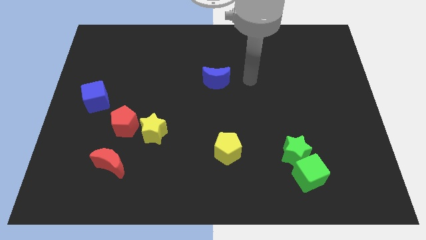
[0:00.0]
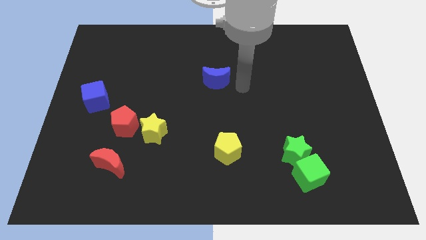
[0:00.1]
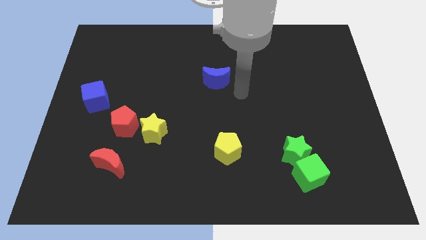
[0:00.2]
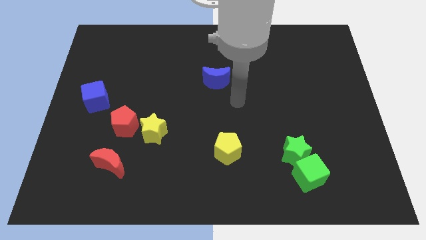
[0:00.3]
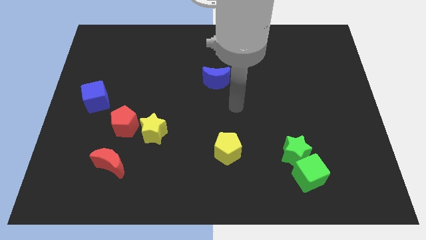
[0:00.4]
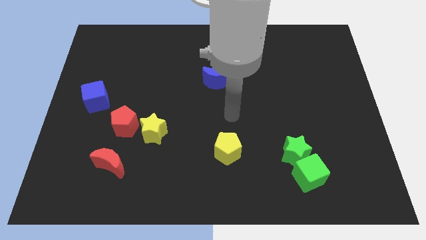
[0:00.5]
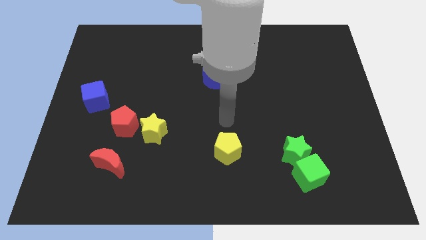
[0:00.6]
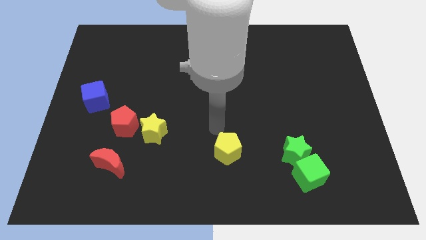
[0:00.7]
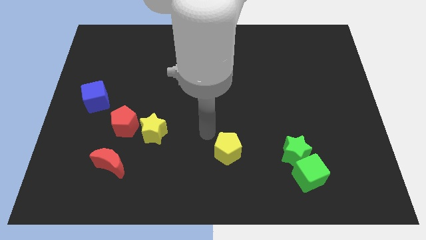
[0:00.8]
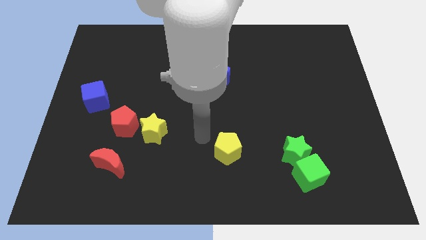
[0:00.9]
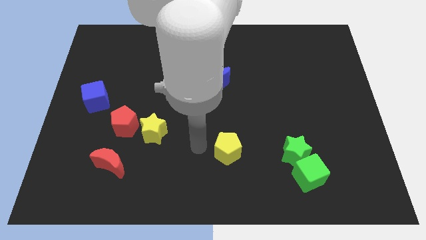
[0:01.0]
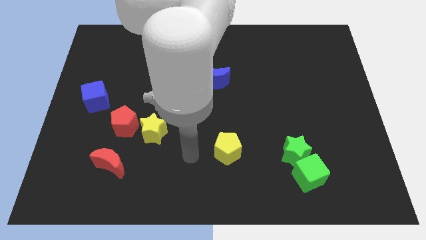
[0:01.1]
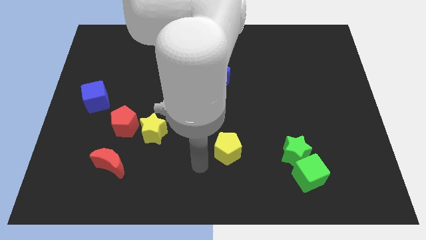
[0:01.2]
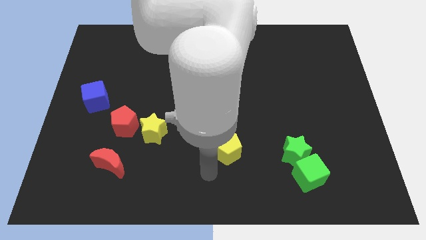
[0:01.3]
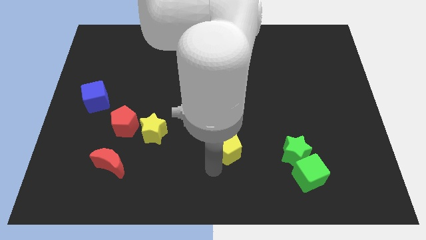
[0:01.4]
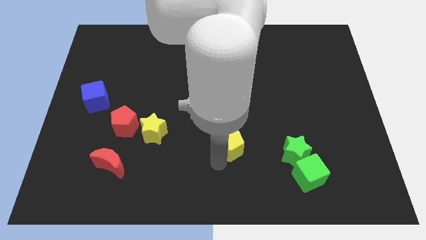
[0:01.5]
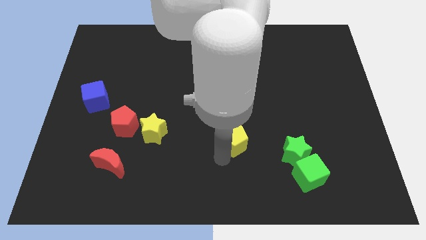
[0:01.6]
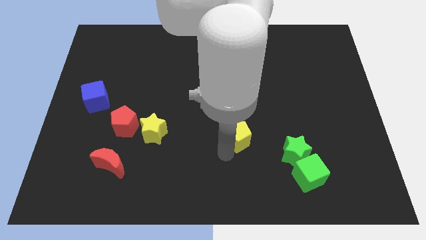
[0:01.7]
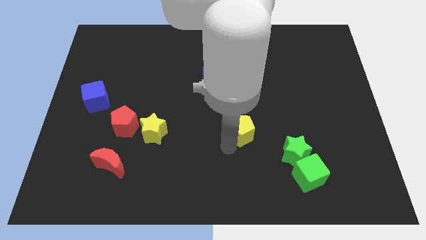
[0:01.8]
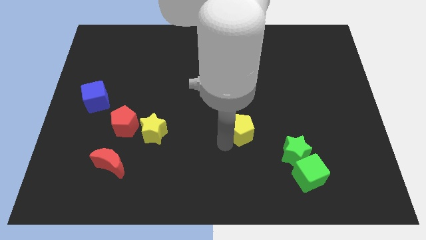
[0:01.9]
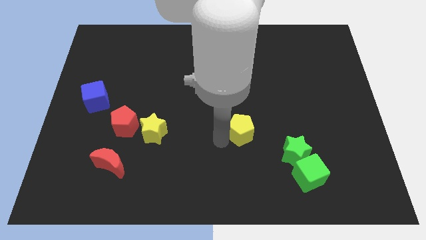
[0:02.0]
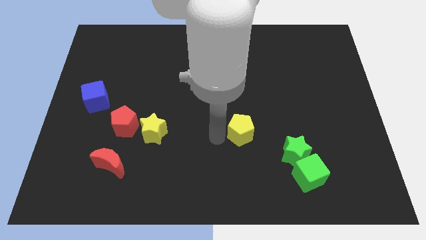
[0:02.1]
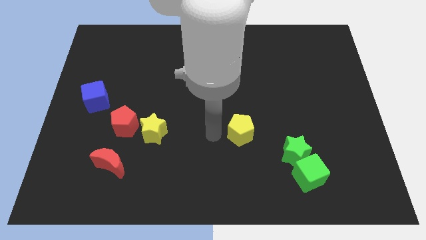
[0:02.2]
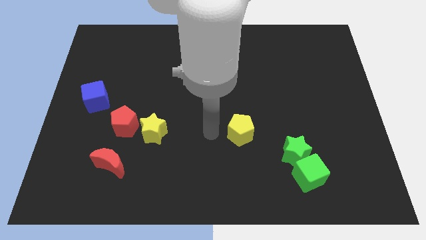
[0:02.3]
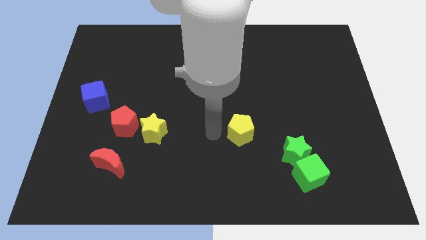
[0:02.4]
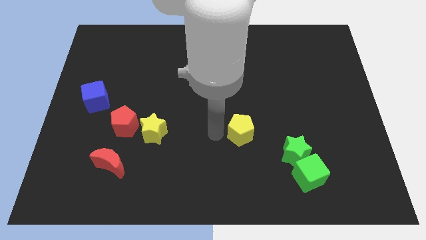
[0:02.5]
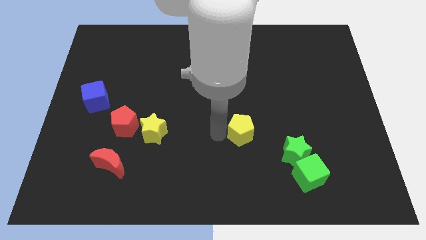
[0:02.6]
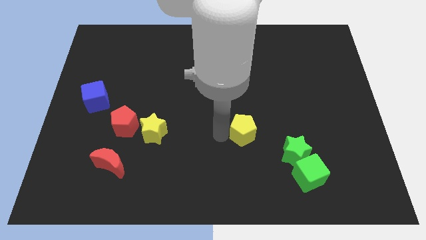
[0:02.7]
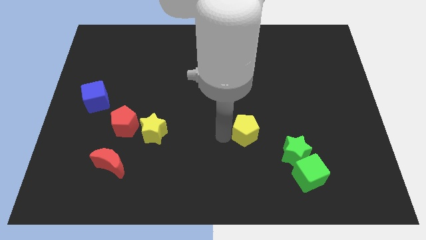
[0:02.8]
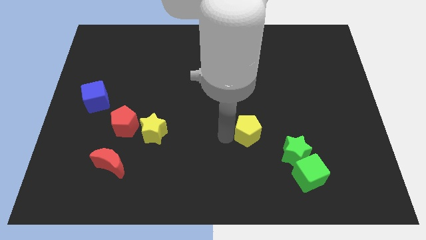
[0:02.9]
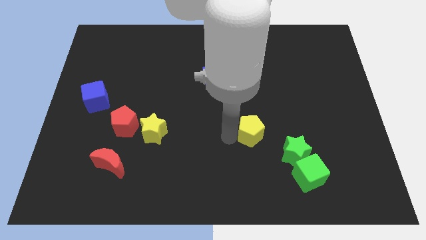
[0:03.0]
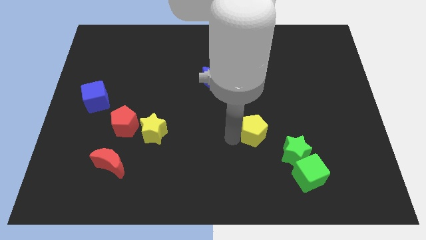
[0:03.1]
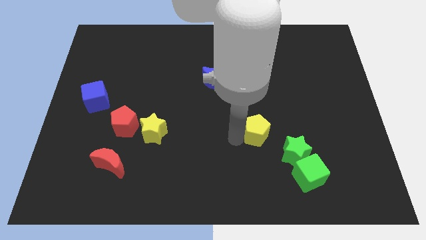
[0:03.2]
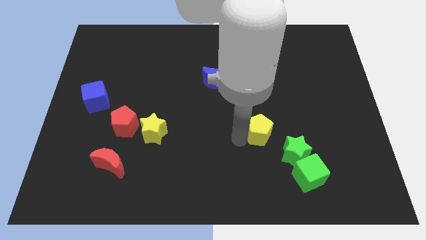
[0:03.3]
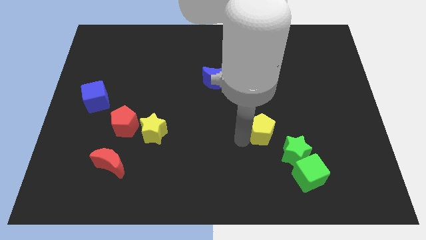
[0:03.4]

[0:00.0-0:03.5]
push the yellow pentagon slightly right

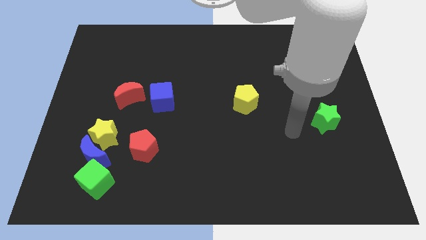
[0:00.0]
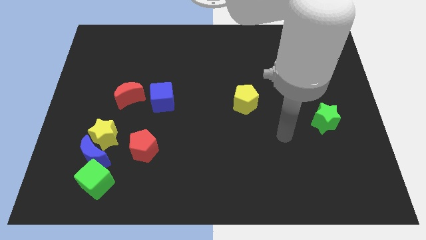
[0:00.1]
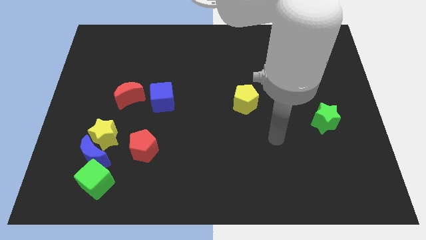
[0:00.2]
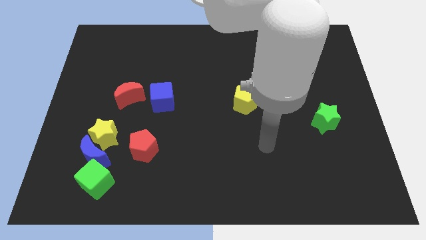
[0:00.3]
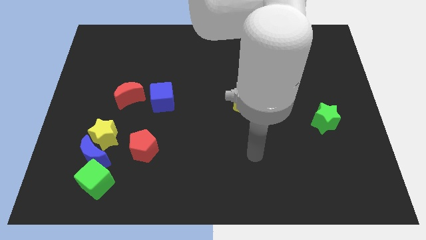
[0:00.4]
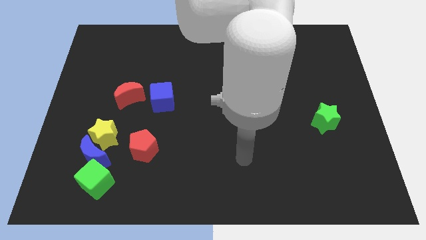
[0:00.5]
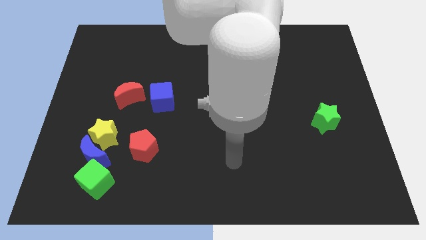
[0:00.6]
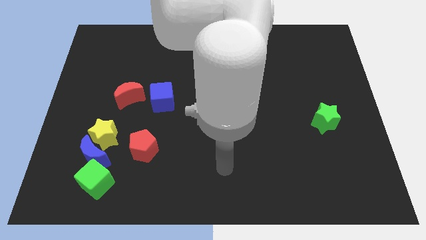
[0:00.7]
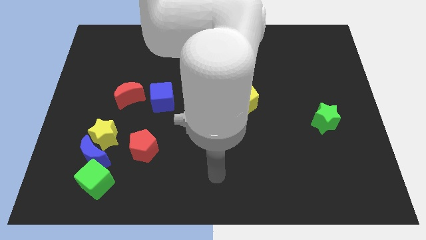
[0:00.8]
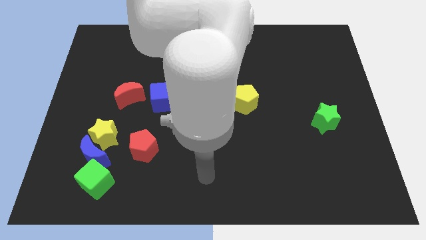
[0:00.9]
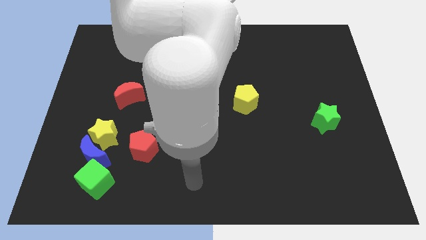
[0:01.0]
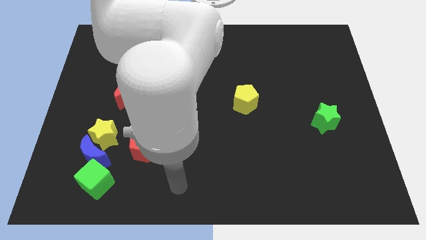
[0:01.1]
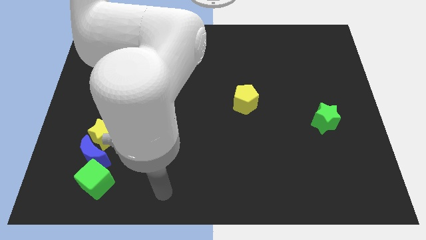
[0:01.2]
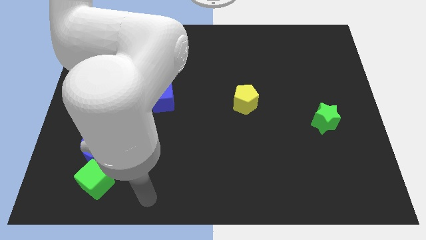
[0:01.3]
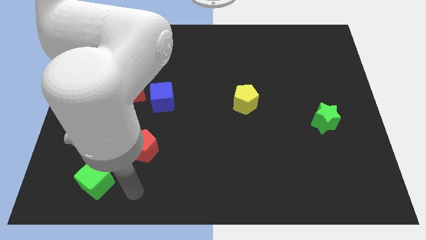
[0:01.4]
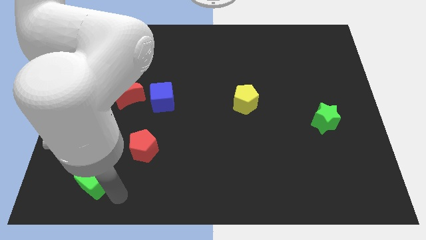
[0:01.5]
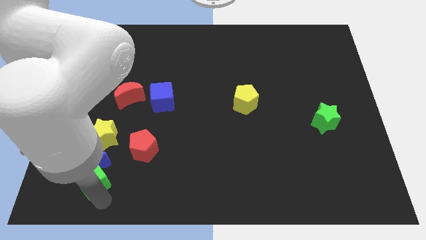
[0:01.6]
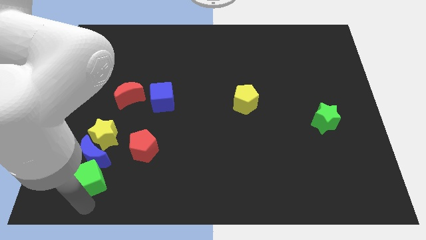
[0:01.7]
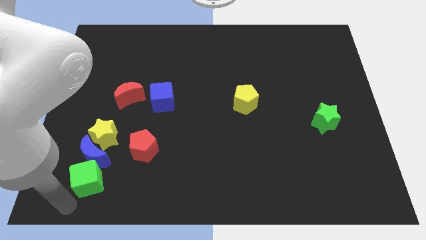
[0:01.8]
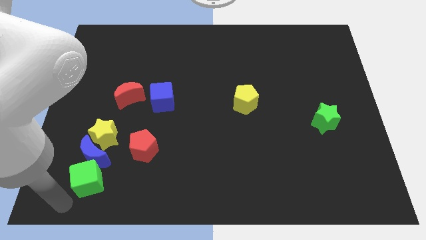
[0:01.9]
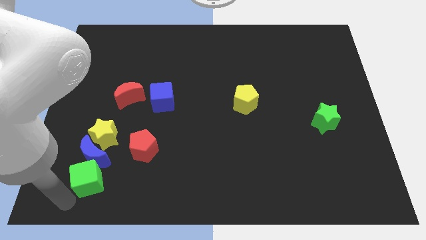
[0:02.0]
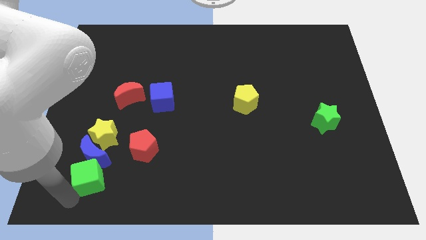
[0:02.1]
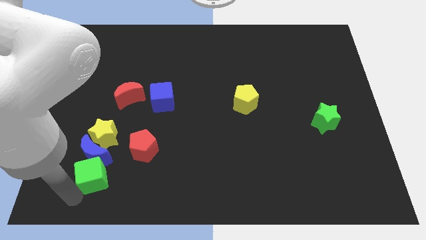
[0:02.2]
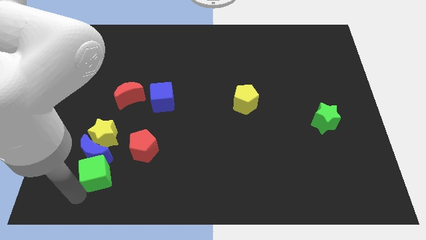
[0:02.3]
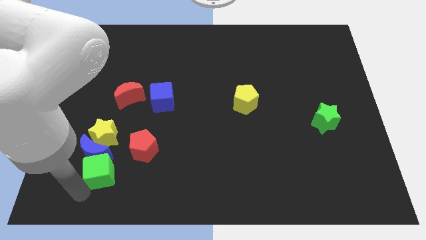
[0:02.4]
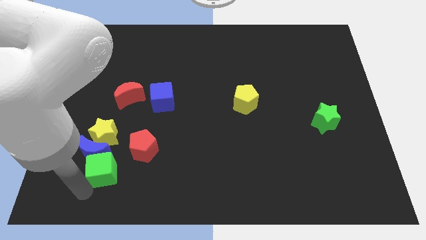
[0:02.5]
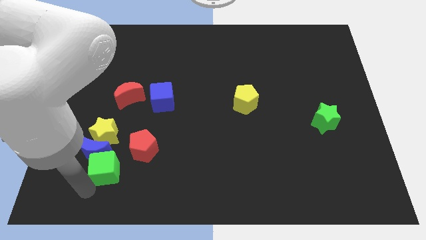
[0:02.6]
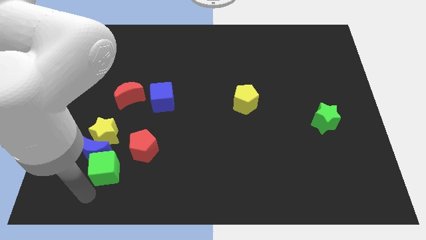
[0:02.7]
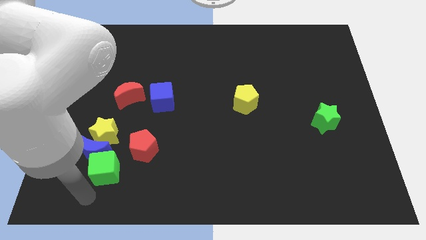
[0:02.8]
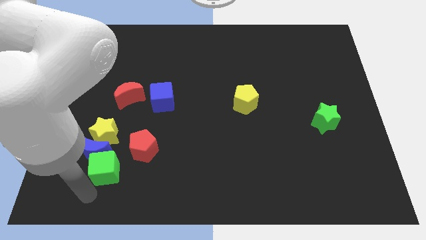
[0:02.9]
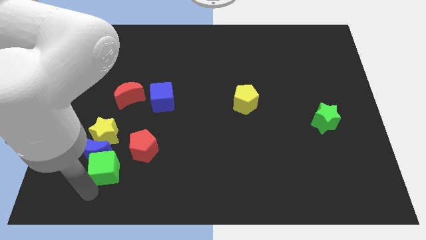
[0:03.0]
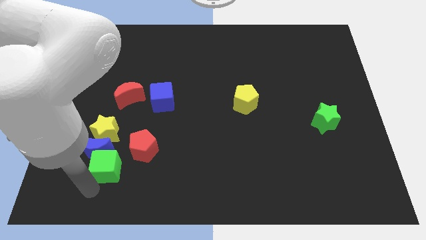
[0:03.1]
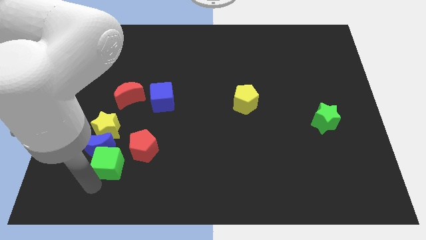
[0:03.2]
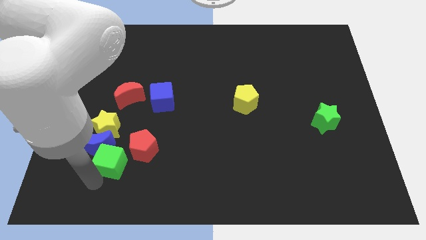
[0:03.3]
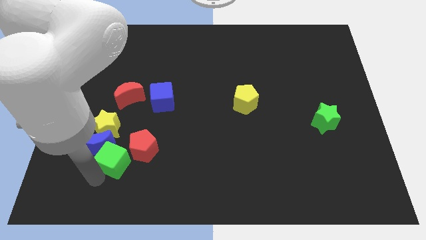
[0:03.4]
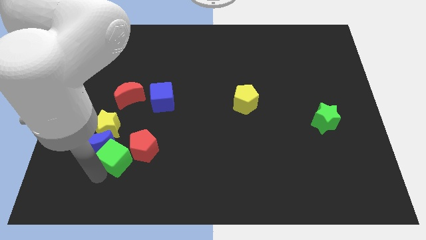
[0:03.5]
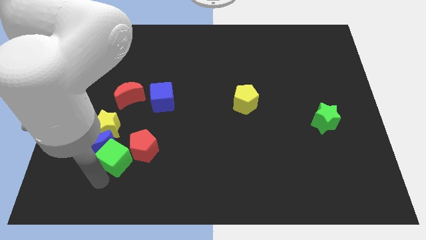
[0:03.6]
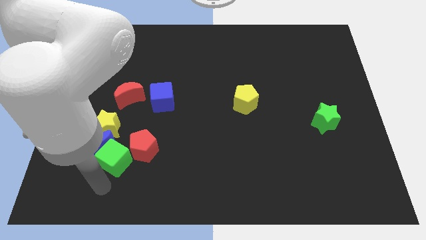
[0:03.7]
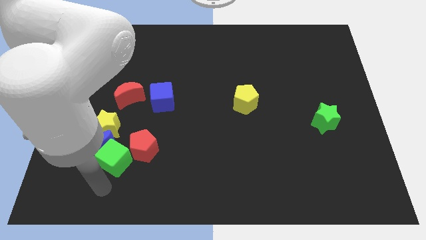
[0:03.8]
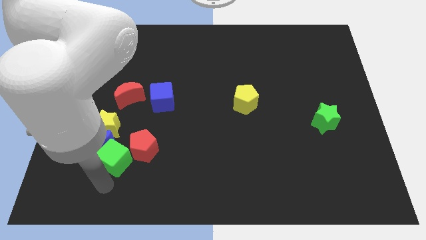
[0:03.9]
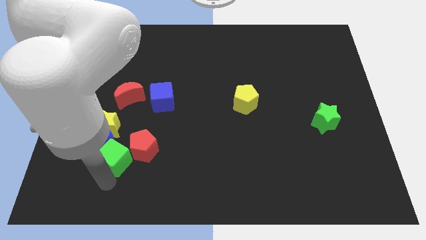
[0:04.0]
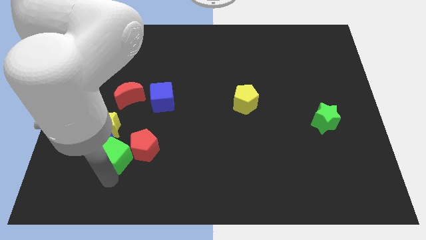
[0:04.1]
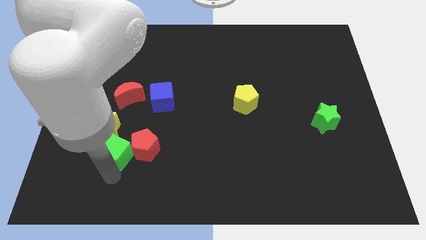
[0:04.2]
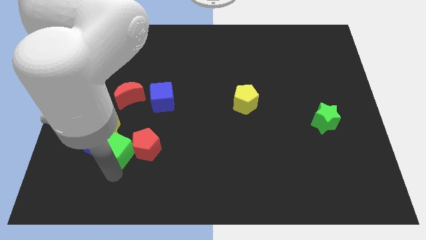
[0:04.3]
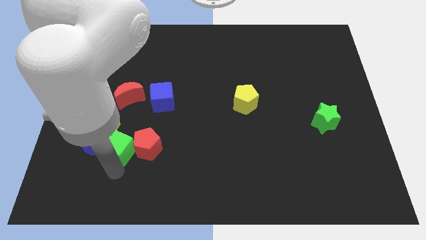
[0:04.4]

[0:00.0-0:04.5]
move the green cube upwards slightly

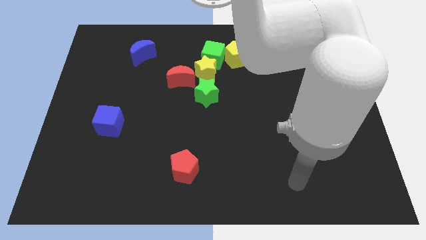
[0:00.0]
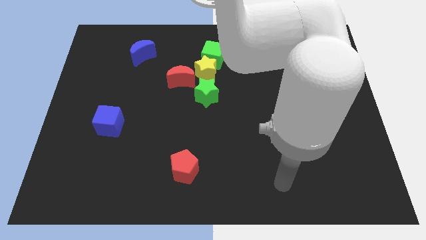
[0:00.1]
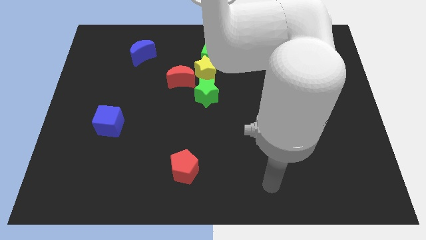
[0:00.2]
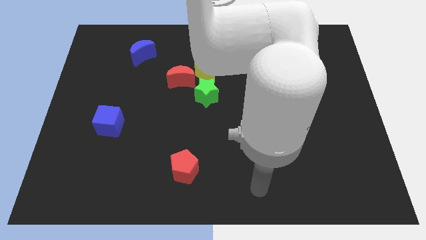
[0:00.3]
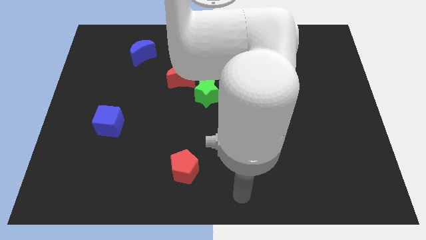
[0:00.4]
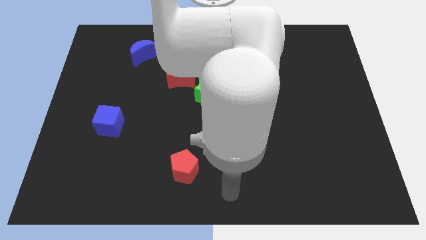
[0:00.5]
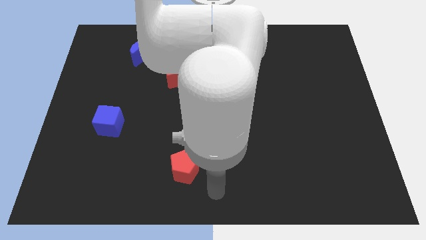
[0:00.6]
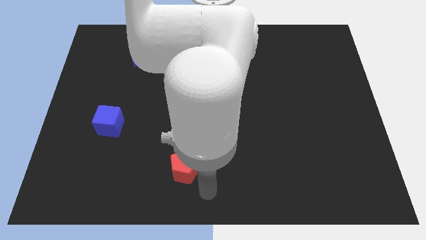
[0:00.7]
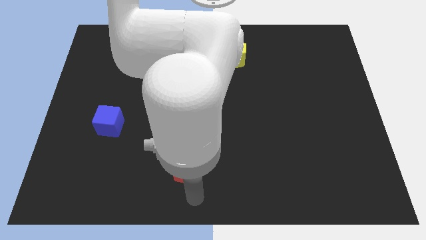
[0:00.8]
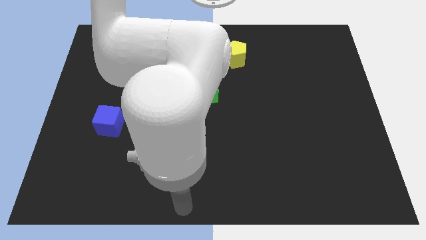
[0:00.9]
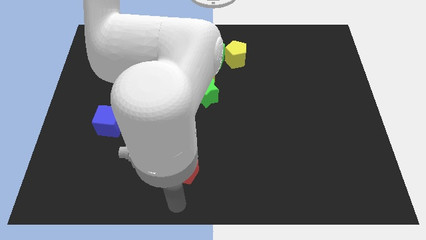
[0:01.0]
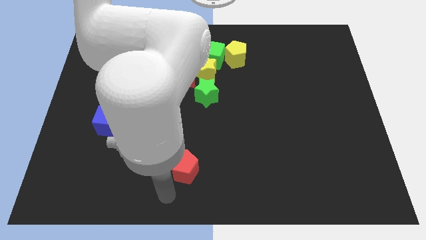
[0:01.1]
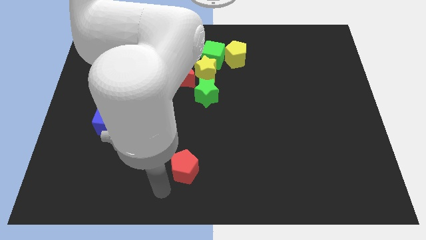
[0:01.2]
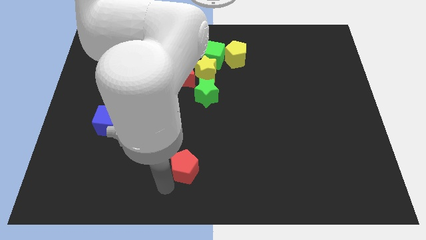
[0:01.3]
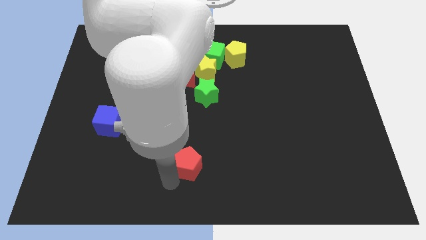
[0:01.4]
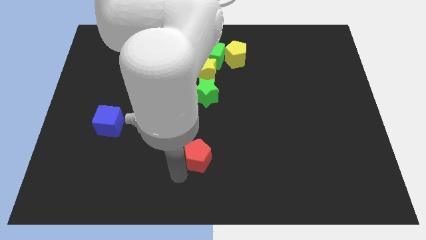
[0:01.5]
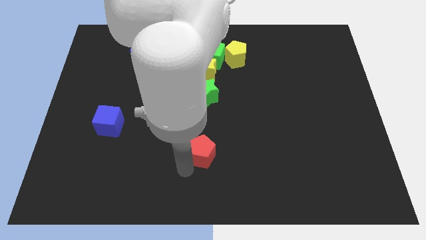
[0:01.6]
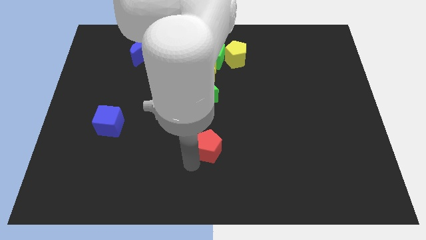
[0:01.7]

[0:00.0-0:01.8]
move the red pentagon diagonally up and right a little bit
